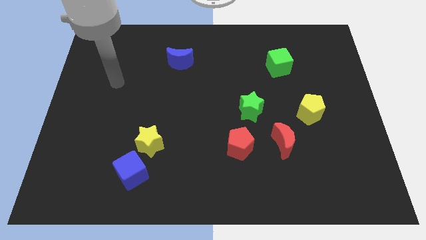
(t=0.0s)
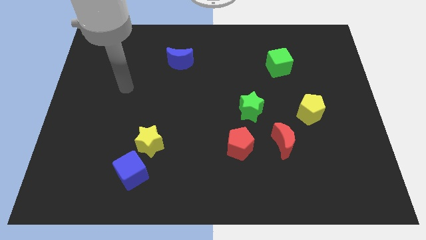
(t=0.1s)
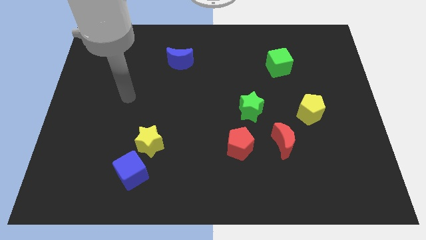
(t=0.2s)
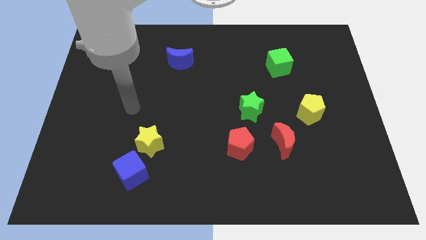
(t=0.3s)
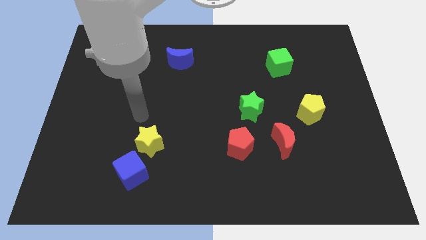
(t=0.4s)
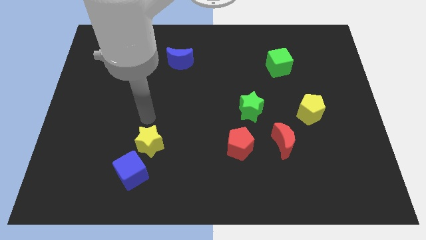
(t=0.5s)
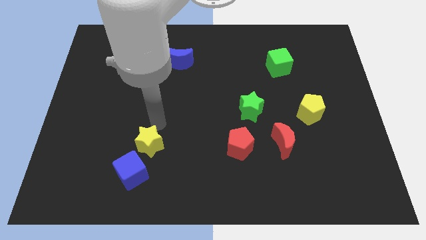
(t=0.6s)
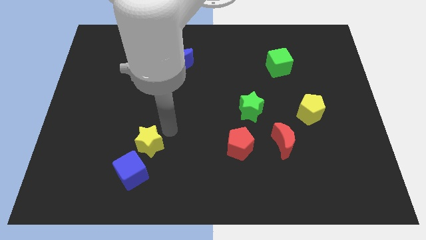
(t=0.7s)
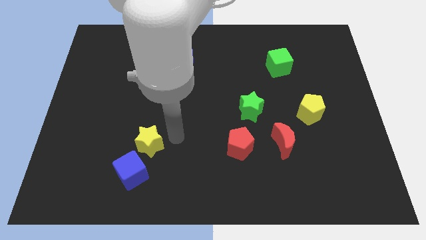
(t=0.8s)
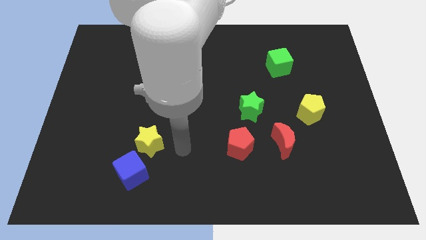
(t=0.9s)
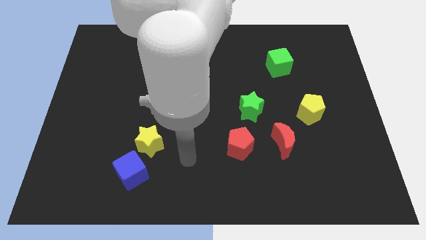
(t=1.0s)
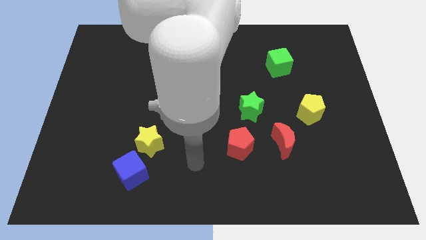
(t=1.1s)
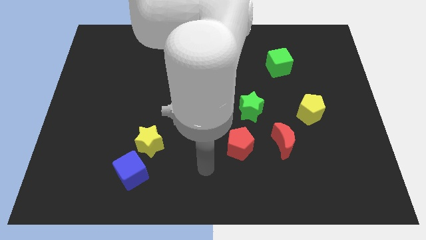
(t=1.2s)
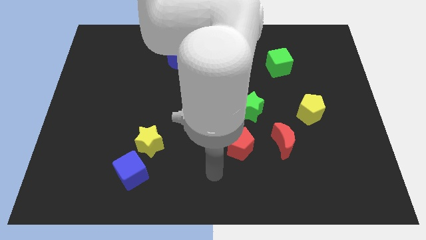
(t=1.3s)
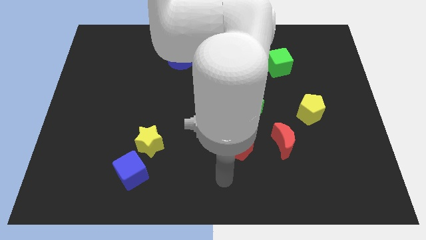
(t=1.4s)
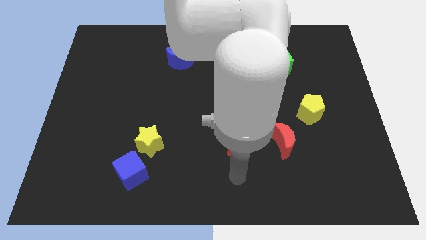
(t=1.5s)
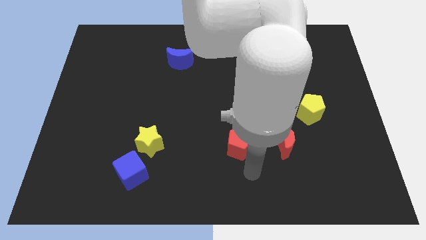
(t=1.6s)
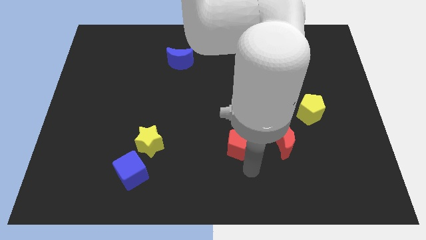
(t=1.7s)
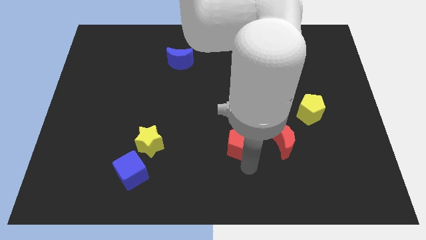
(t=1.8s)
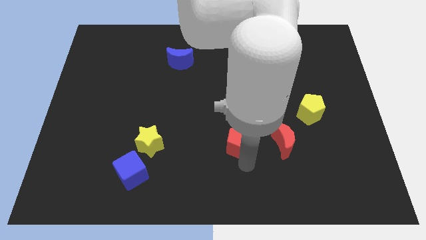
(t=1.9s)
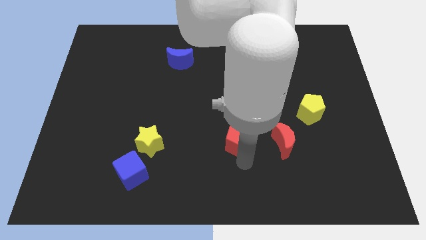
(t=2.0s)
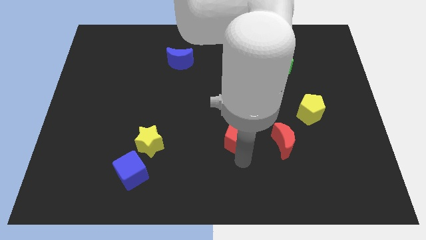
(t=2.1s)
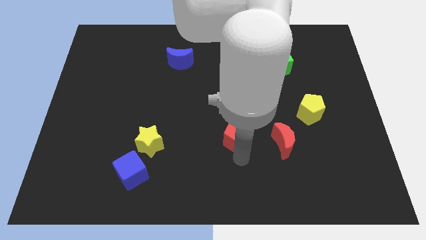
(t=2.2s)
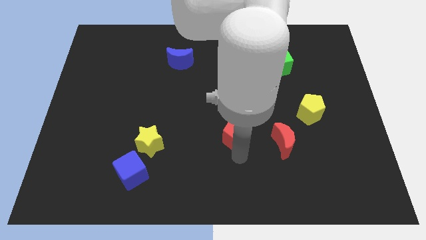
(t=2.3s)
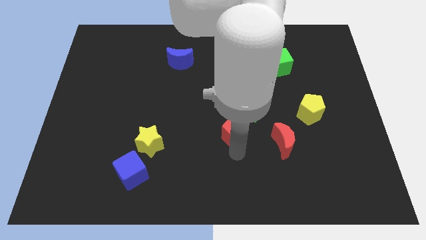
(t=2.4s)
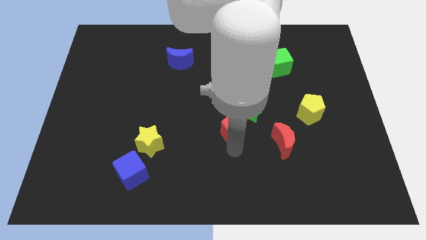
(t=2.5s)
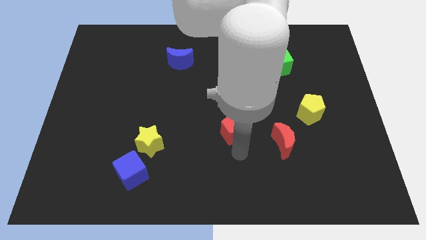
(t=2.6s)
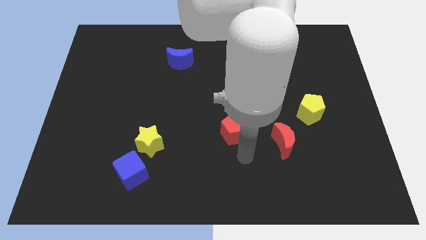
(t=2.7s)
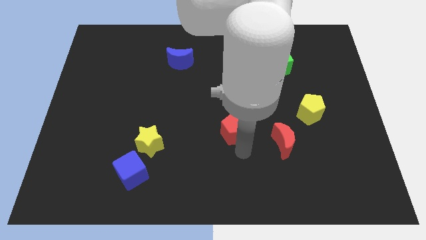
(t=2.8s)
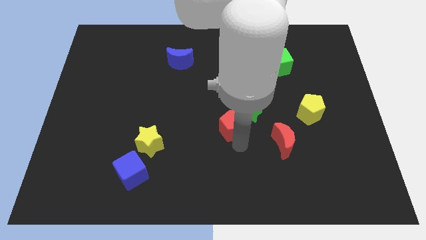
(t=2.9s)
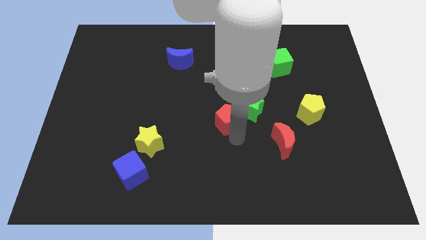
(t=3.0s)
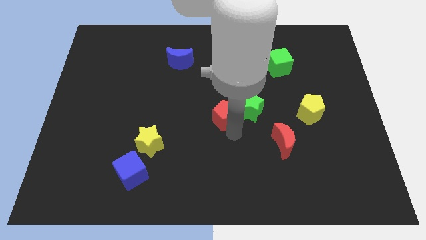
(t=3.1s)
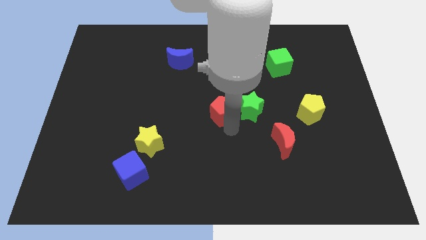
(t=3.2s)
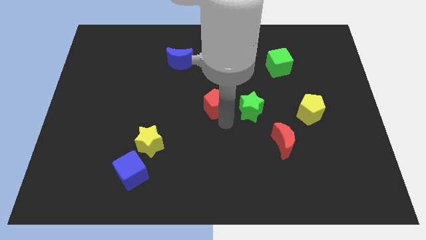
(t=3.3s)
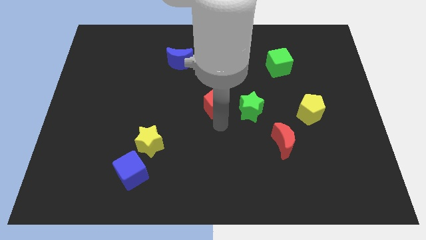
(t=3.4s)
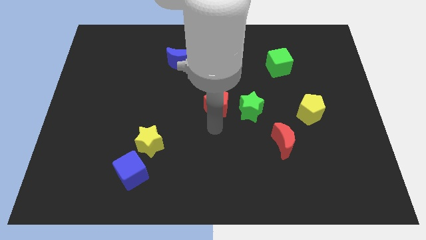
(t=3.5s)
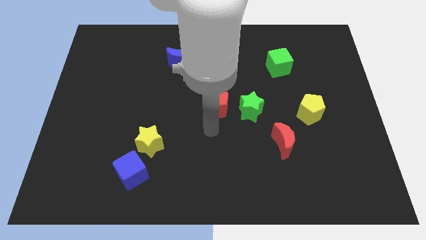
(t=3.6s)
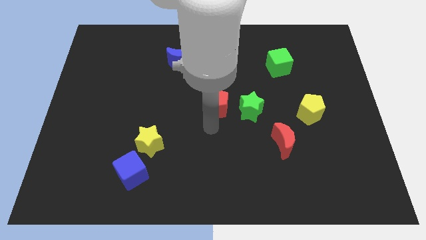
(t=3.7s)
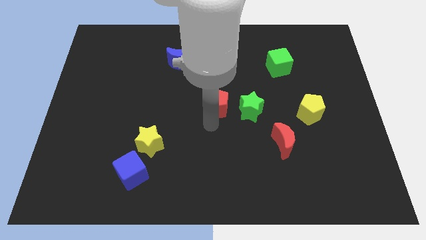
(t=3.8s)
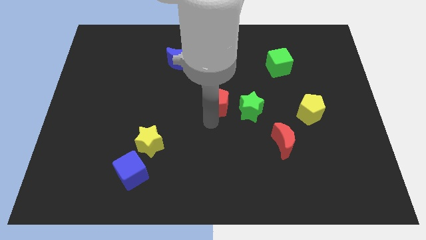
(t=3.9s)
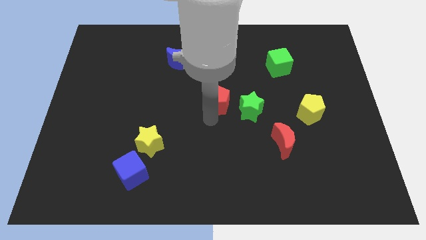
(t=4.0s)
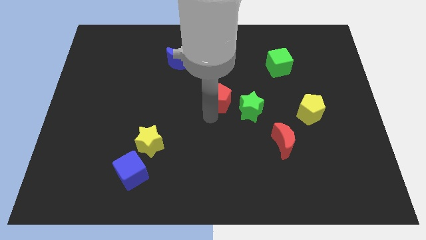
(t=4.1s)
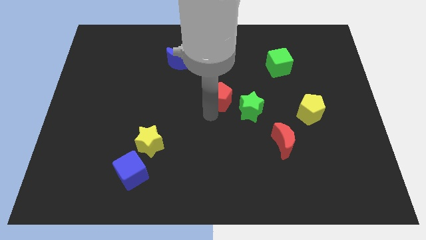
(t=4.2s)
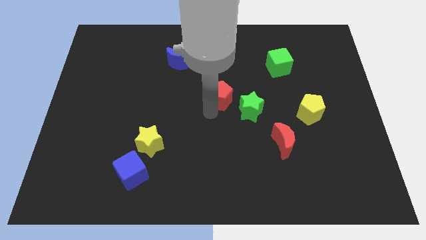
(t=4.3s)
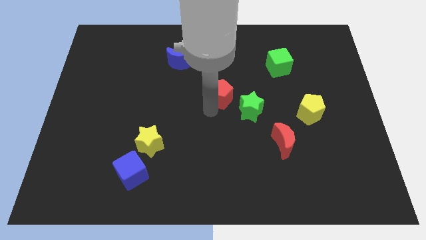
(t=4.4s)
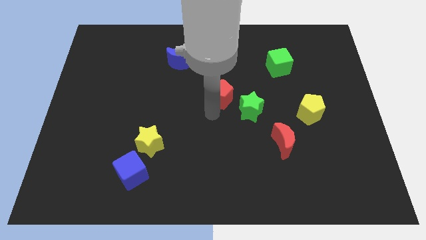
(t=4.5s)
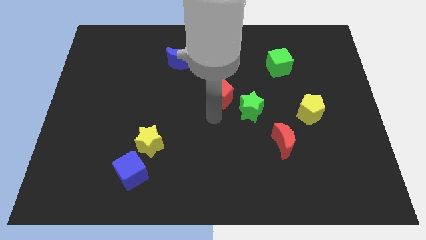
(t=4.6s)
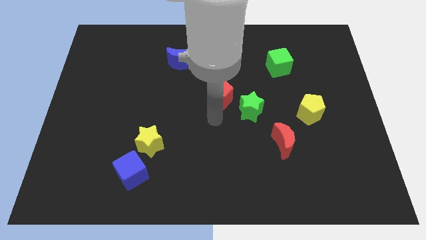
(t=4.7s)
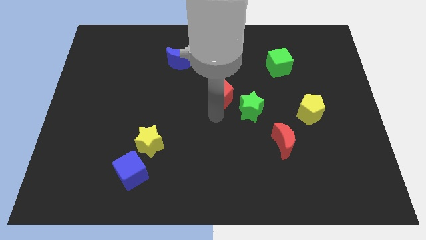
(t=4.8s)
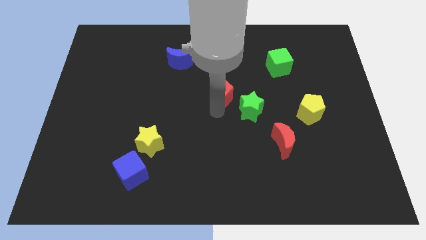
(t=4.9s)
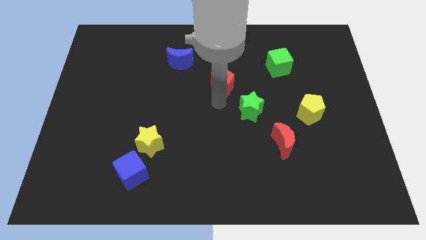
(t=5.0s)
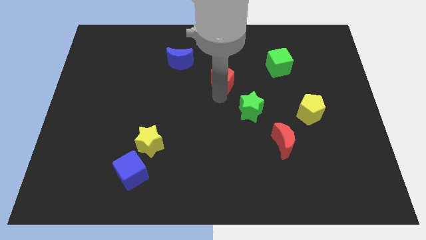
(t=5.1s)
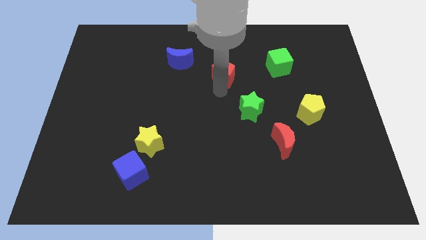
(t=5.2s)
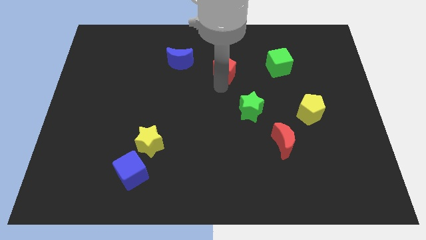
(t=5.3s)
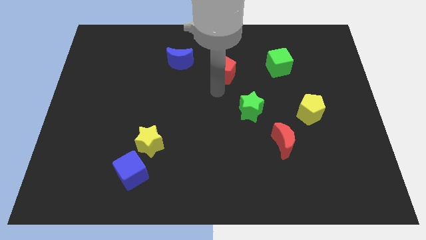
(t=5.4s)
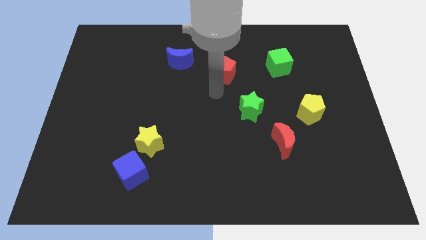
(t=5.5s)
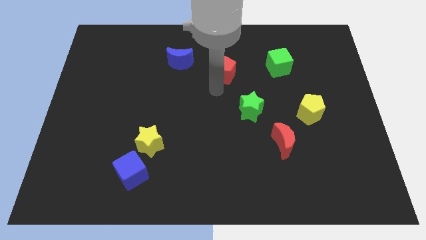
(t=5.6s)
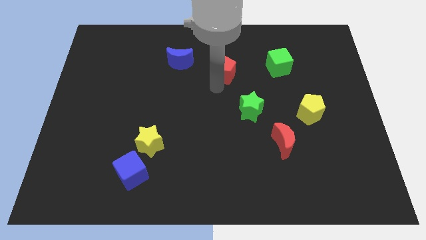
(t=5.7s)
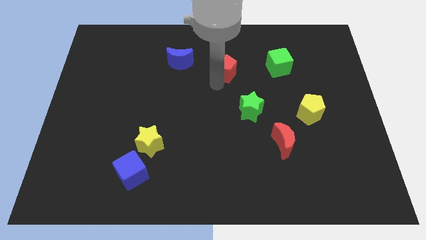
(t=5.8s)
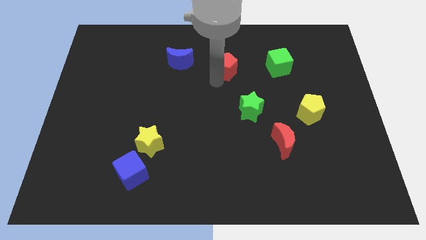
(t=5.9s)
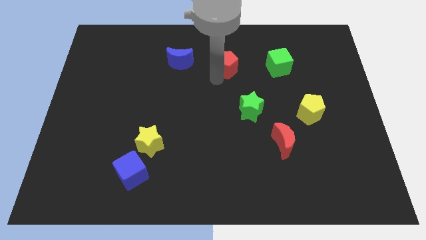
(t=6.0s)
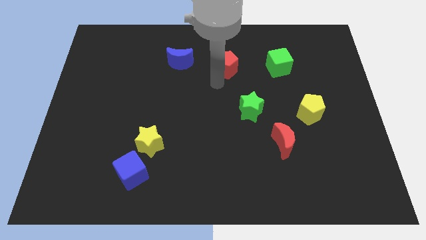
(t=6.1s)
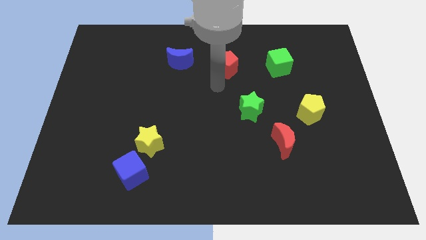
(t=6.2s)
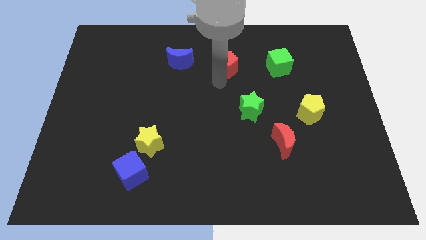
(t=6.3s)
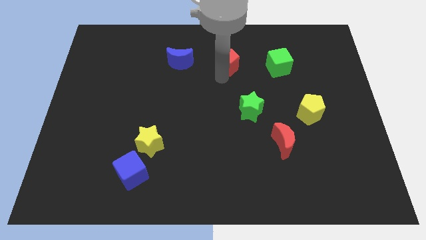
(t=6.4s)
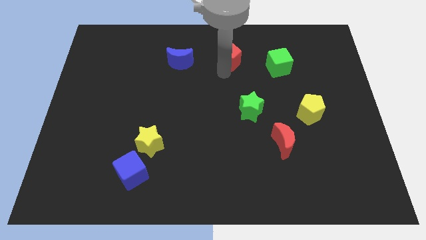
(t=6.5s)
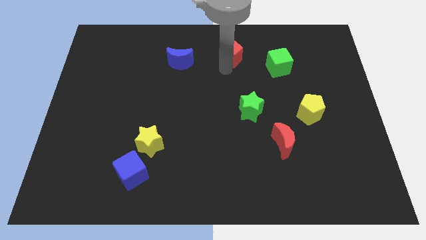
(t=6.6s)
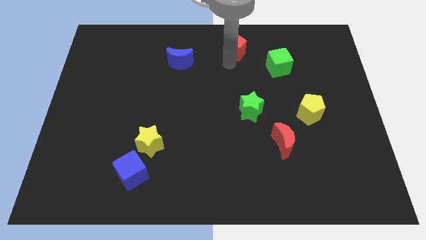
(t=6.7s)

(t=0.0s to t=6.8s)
push the red pentagon to the top side

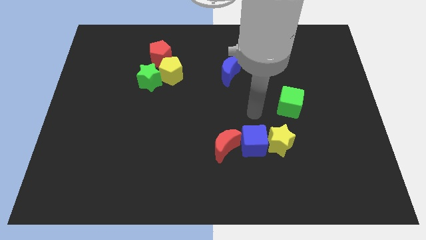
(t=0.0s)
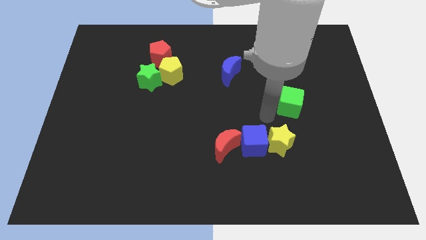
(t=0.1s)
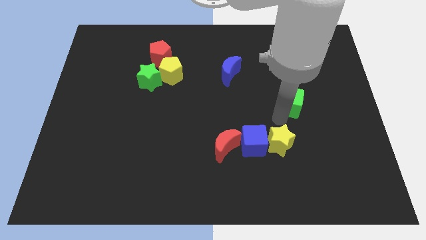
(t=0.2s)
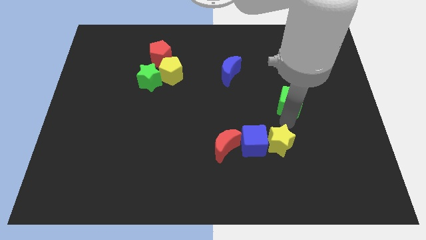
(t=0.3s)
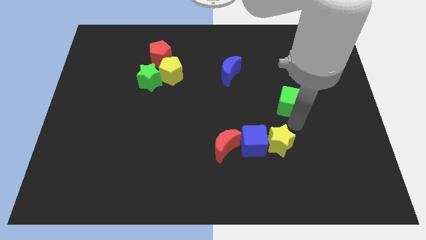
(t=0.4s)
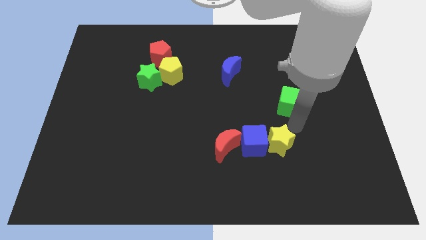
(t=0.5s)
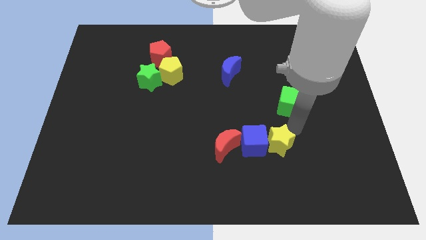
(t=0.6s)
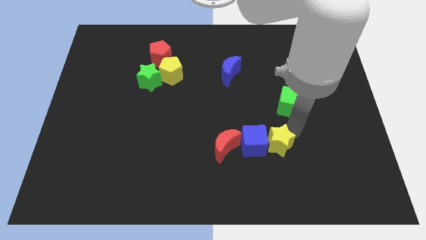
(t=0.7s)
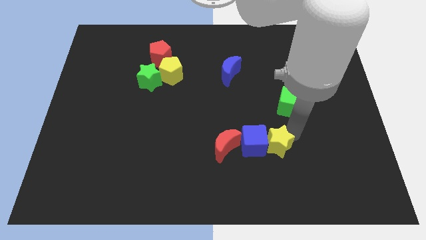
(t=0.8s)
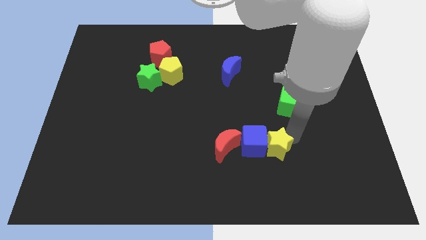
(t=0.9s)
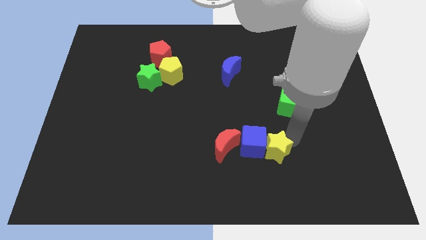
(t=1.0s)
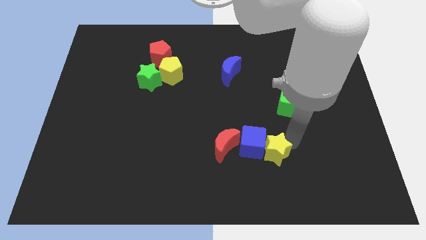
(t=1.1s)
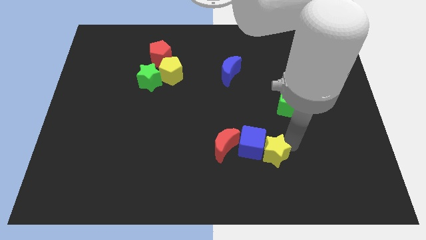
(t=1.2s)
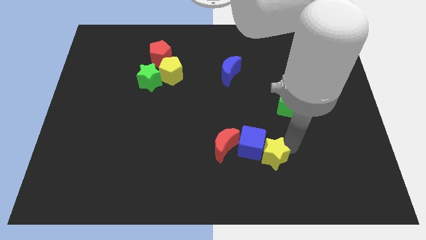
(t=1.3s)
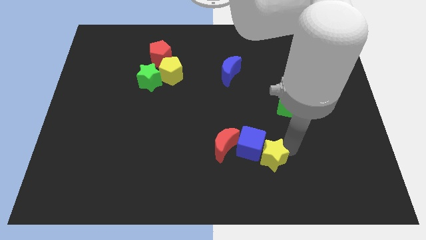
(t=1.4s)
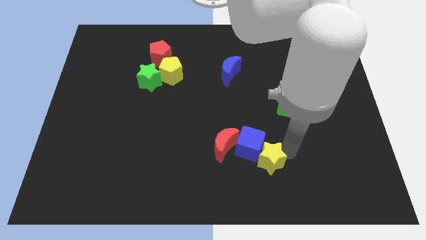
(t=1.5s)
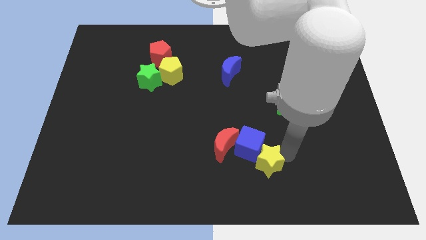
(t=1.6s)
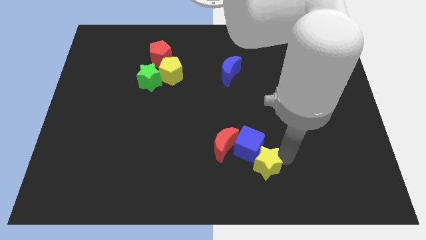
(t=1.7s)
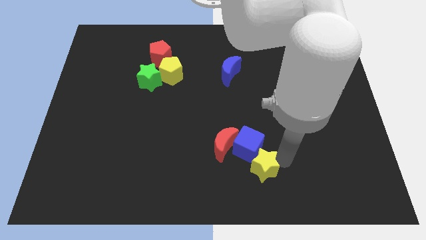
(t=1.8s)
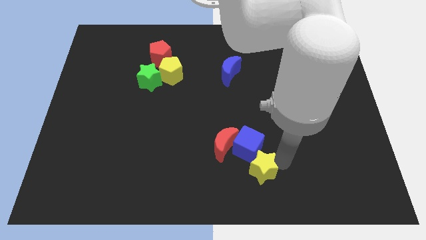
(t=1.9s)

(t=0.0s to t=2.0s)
push the yellow star to the bottom side
